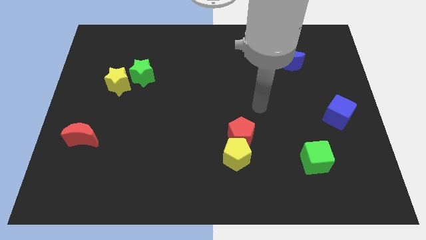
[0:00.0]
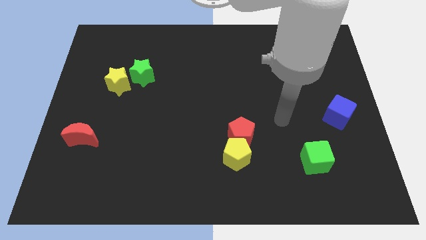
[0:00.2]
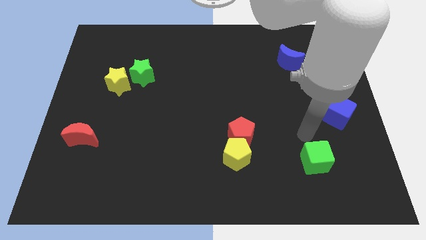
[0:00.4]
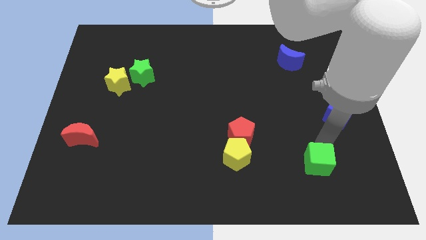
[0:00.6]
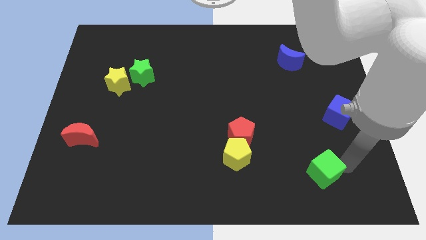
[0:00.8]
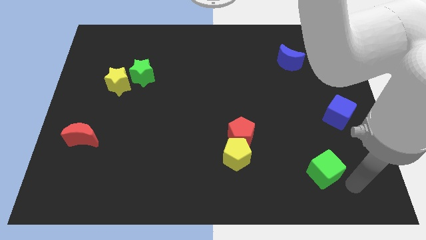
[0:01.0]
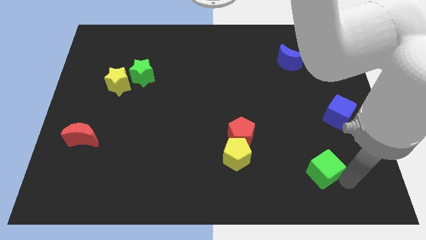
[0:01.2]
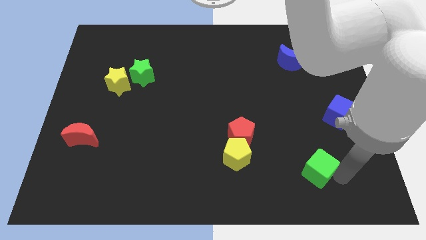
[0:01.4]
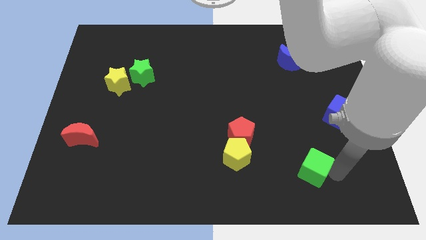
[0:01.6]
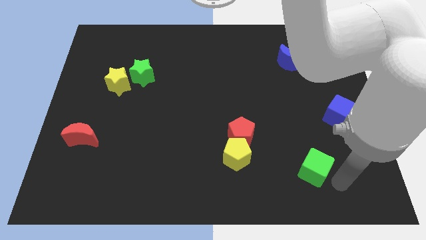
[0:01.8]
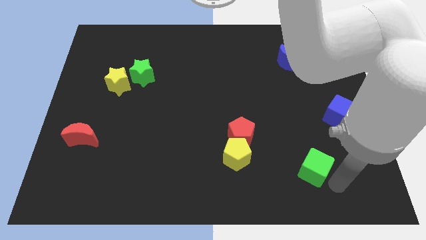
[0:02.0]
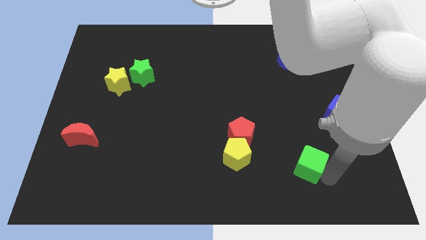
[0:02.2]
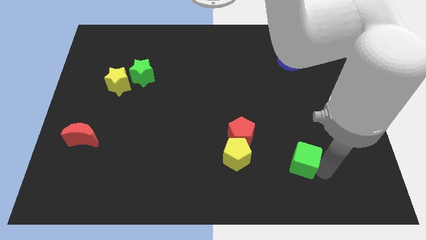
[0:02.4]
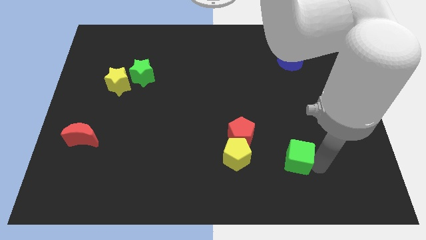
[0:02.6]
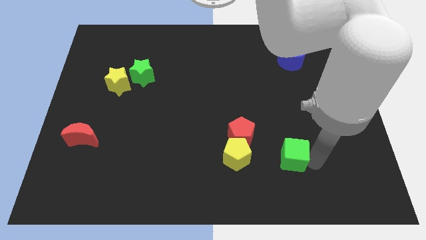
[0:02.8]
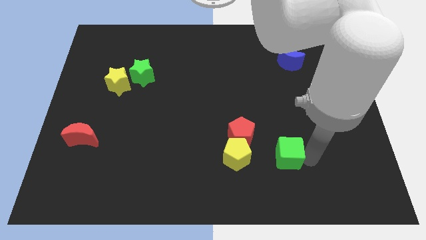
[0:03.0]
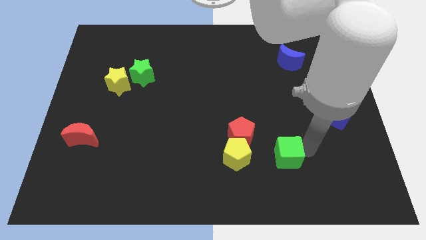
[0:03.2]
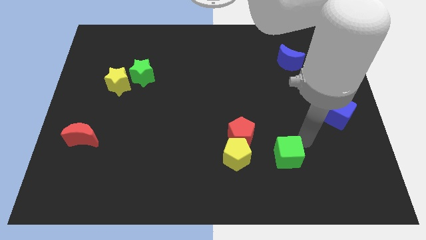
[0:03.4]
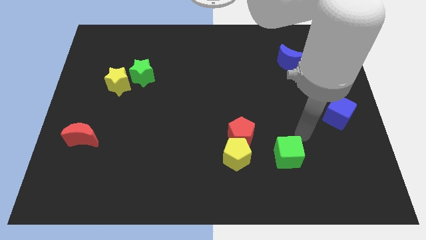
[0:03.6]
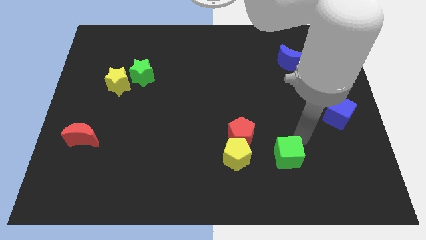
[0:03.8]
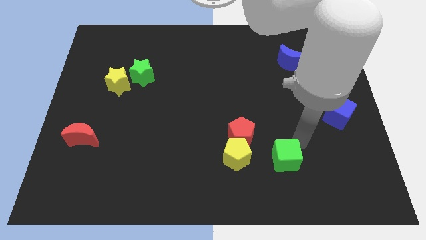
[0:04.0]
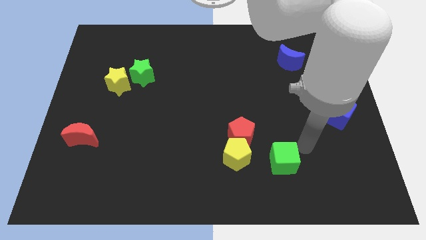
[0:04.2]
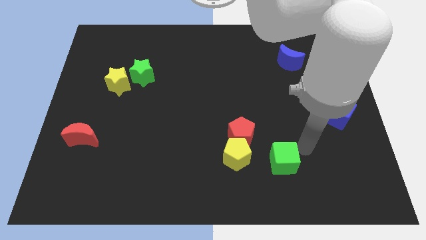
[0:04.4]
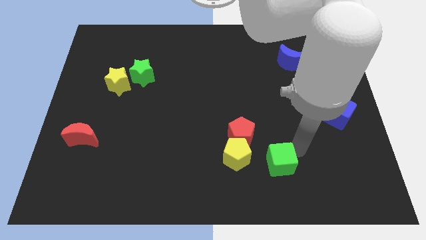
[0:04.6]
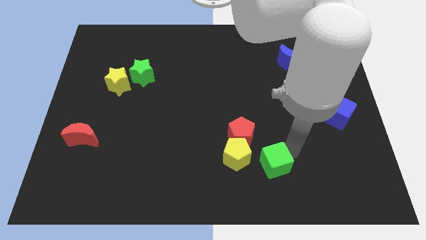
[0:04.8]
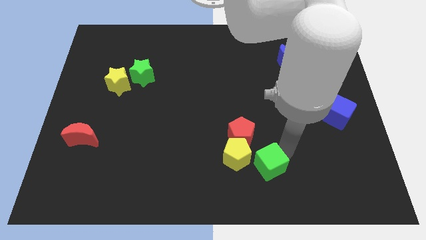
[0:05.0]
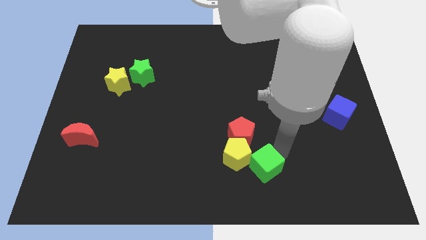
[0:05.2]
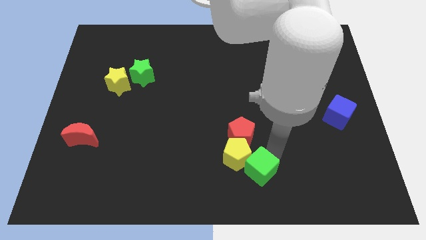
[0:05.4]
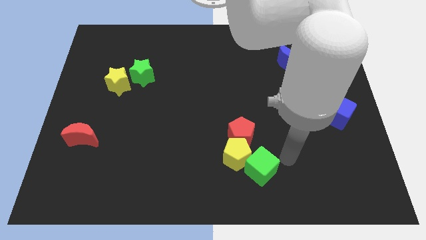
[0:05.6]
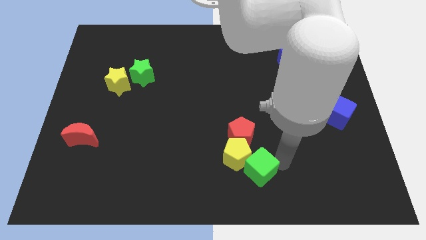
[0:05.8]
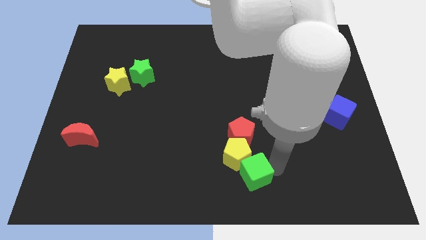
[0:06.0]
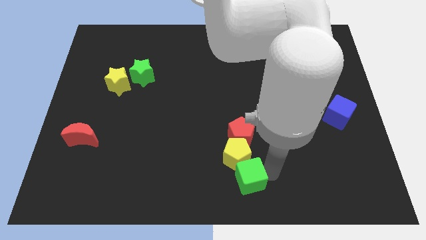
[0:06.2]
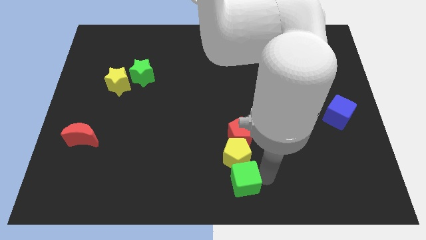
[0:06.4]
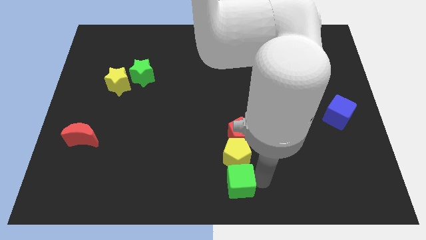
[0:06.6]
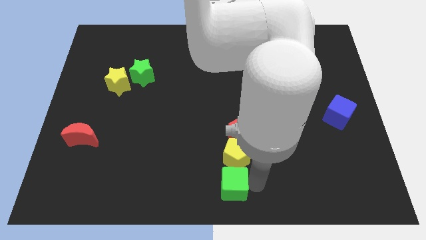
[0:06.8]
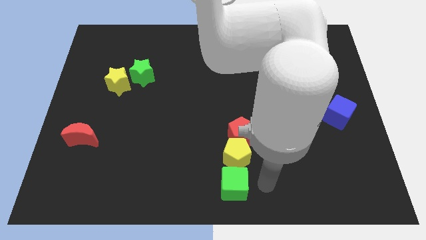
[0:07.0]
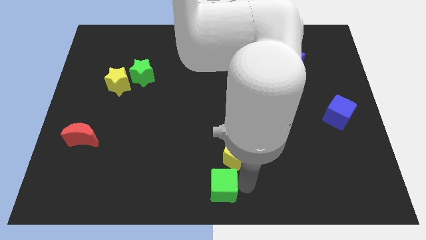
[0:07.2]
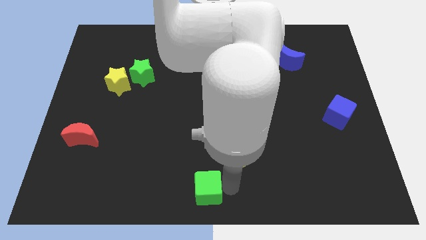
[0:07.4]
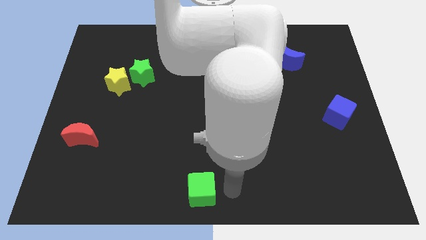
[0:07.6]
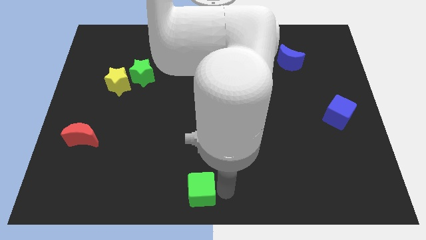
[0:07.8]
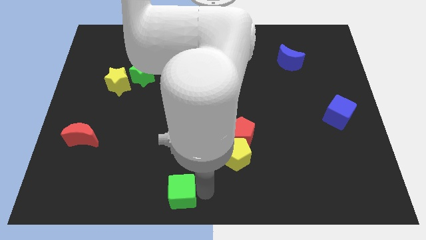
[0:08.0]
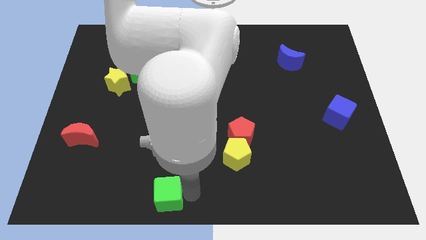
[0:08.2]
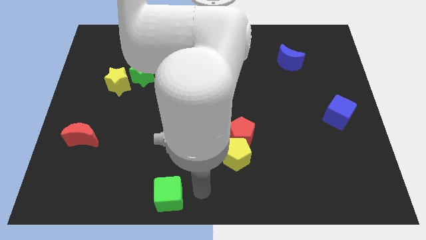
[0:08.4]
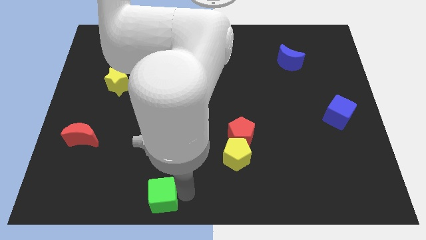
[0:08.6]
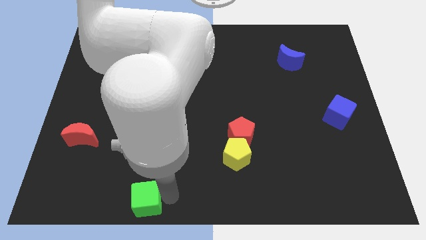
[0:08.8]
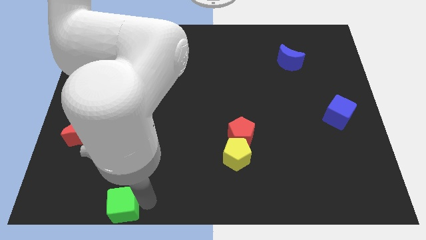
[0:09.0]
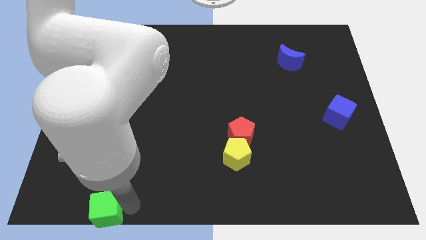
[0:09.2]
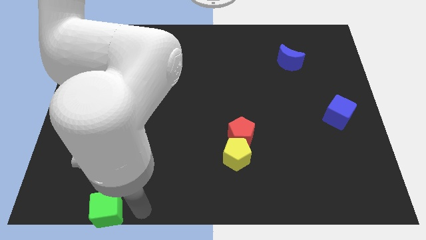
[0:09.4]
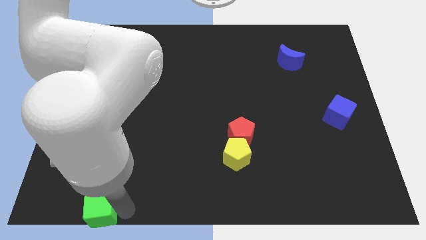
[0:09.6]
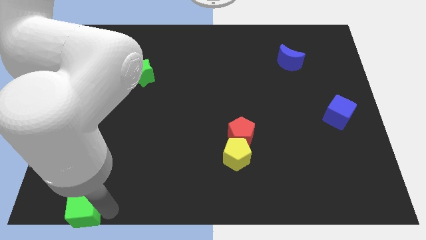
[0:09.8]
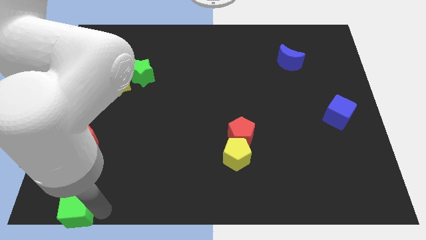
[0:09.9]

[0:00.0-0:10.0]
move the green cube to the bottom left corner

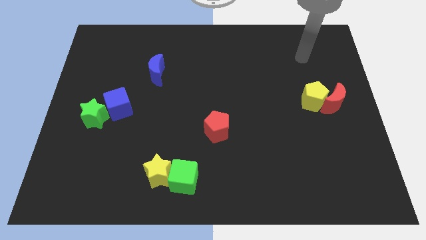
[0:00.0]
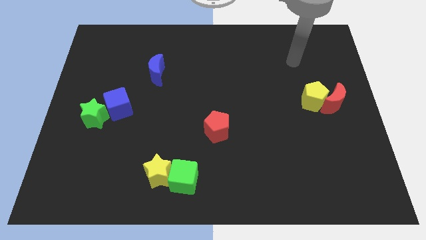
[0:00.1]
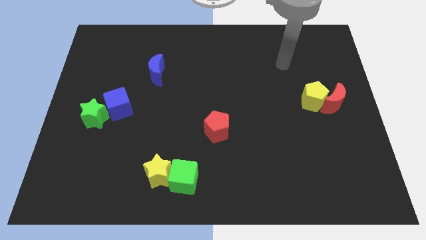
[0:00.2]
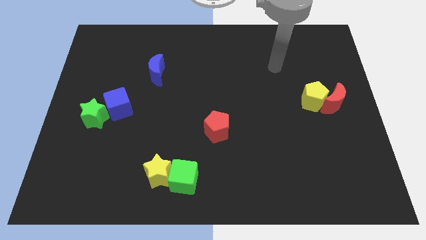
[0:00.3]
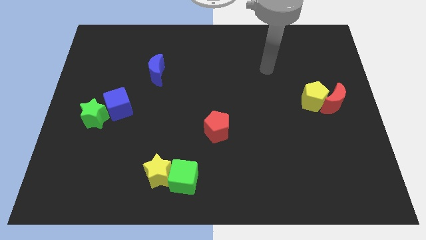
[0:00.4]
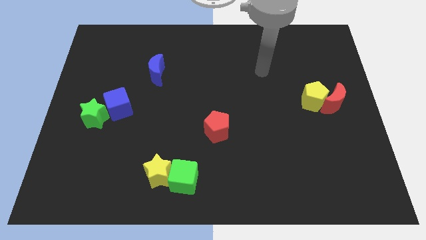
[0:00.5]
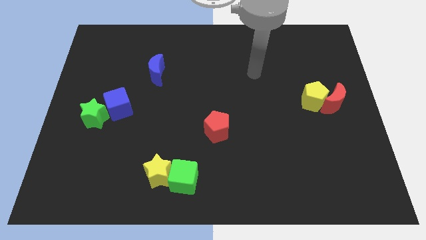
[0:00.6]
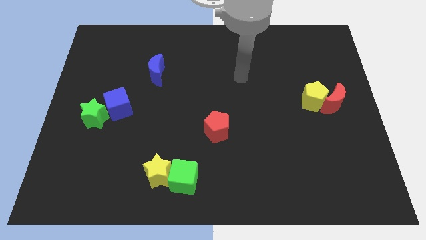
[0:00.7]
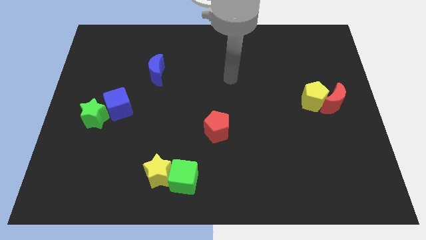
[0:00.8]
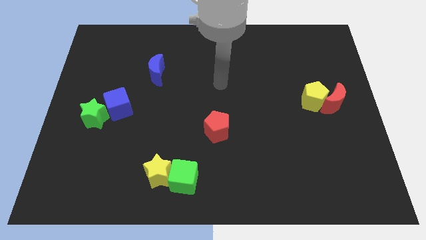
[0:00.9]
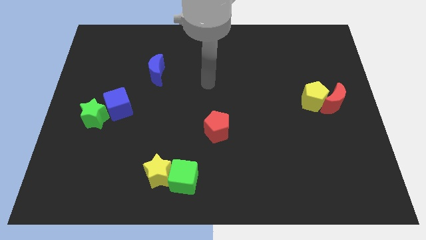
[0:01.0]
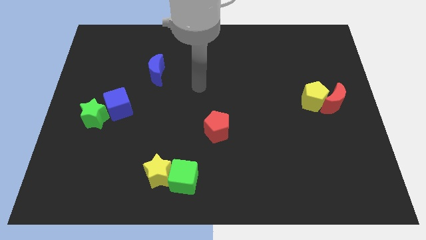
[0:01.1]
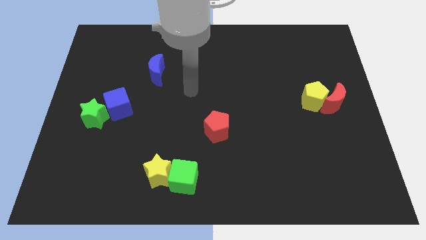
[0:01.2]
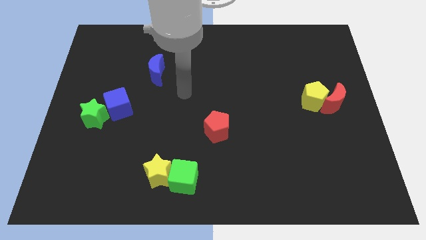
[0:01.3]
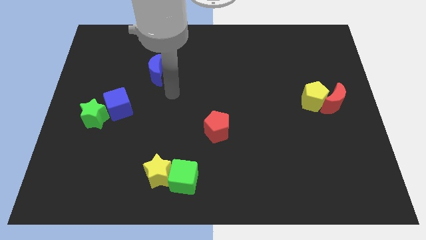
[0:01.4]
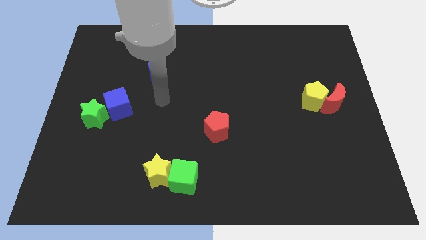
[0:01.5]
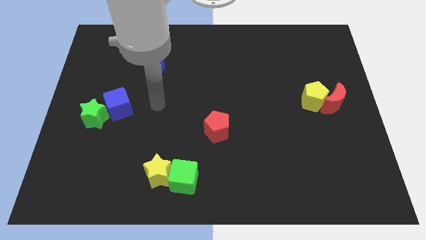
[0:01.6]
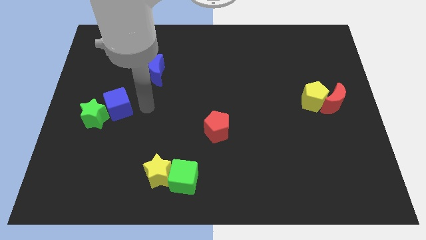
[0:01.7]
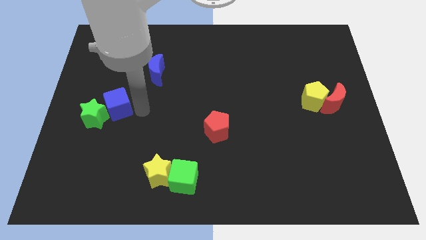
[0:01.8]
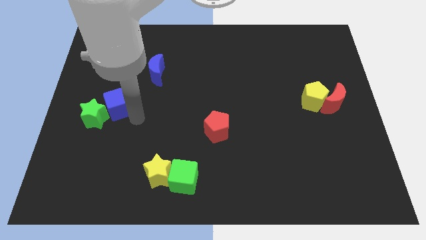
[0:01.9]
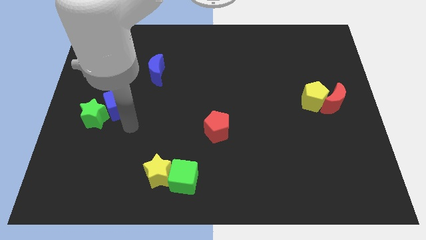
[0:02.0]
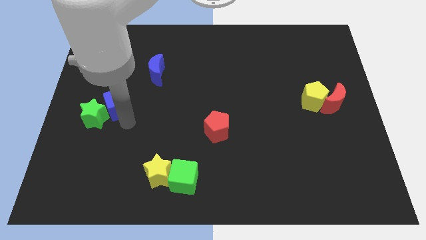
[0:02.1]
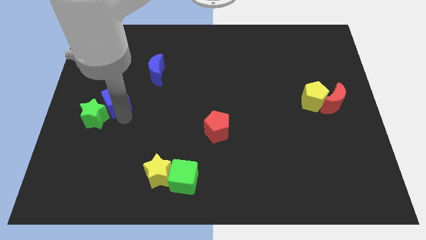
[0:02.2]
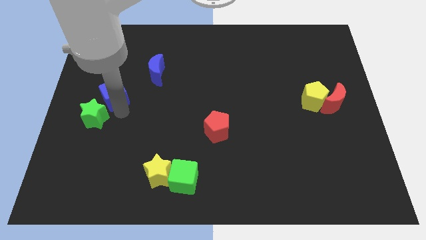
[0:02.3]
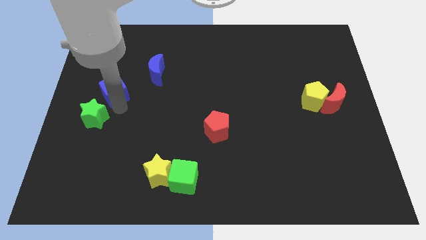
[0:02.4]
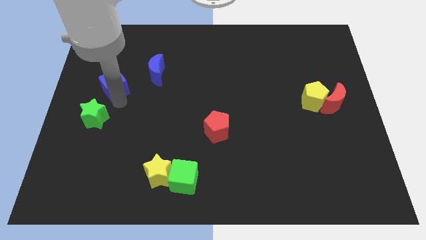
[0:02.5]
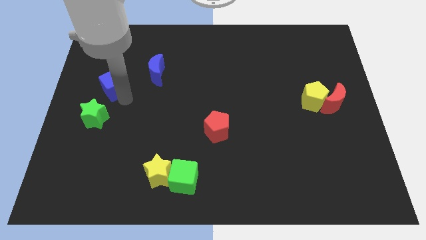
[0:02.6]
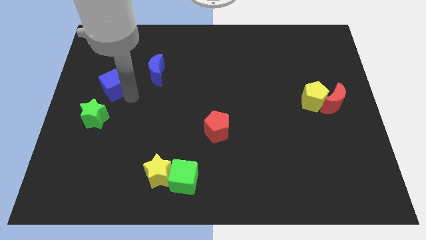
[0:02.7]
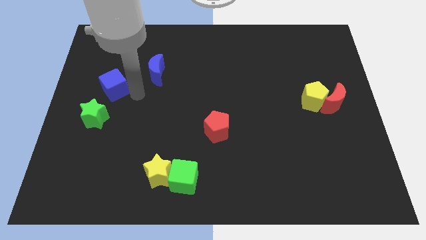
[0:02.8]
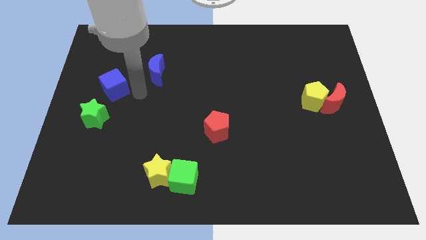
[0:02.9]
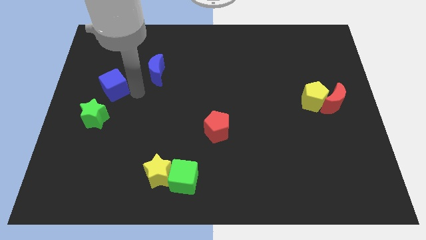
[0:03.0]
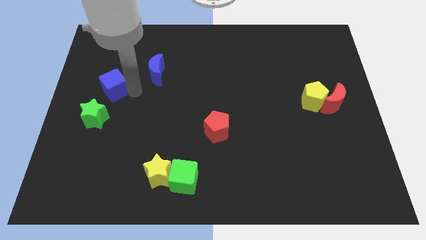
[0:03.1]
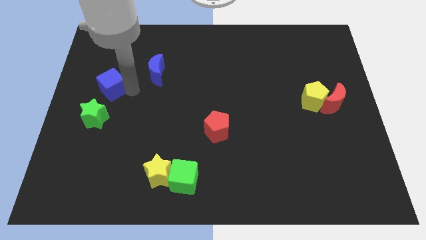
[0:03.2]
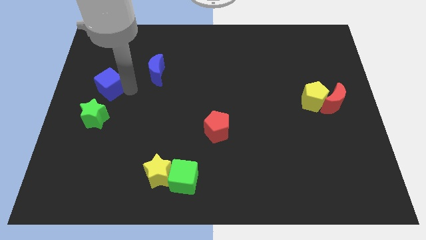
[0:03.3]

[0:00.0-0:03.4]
move the blue cube to the left side
